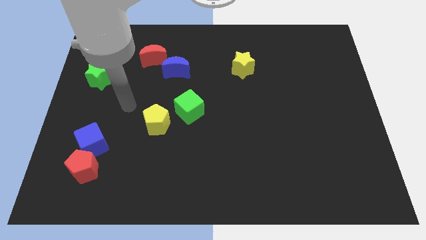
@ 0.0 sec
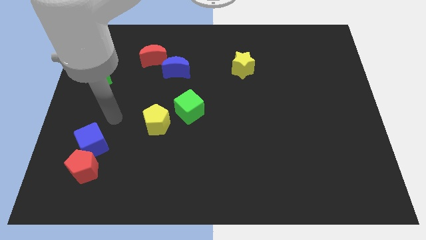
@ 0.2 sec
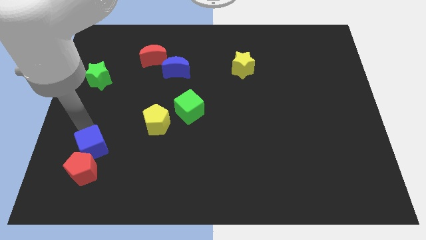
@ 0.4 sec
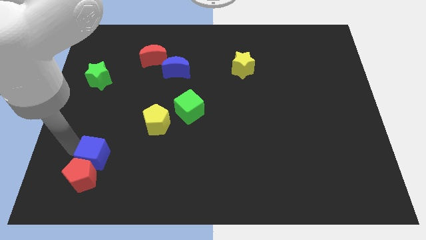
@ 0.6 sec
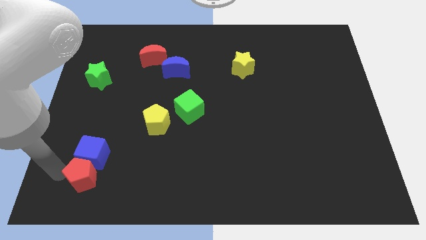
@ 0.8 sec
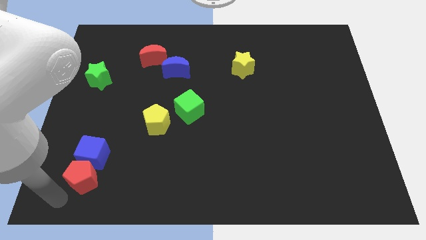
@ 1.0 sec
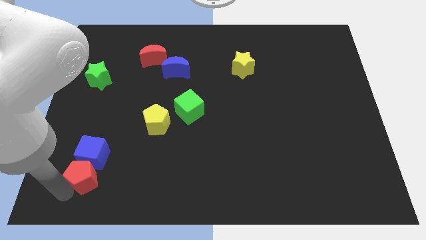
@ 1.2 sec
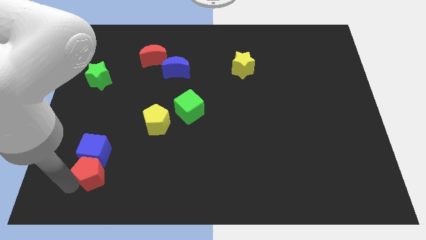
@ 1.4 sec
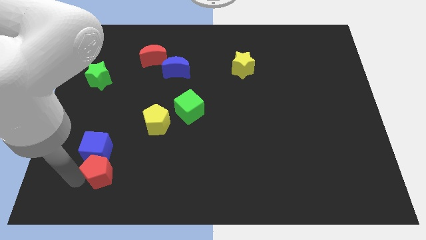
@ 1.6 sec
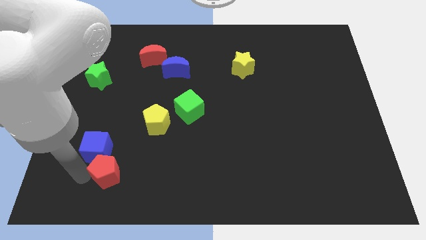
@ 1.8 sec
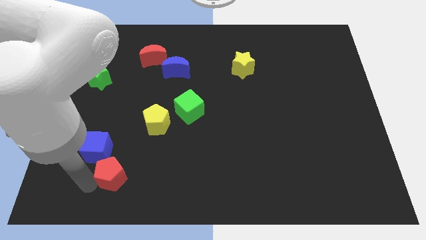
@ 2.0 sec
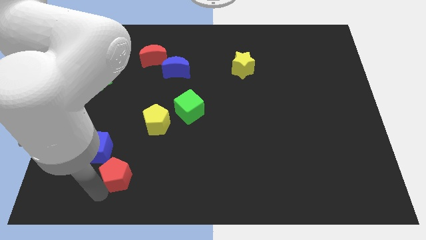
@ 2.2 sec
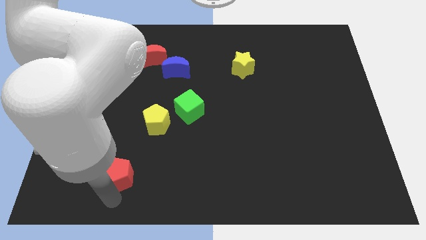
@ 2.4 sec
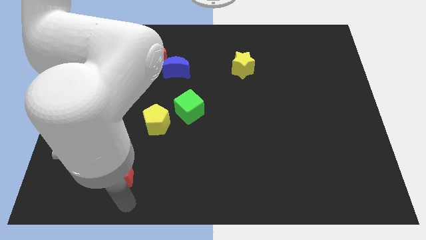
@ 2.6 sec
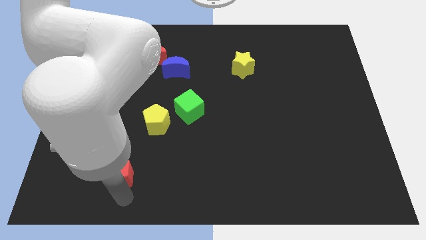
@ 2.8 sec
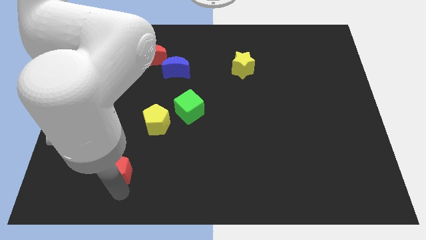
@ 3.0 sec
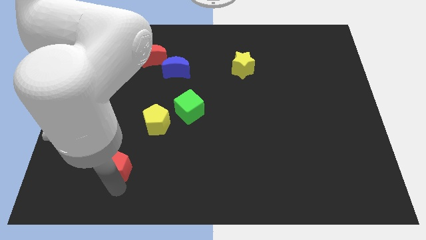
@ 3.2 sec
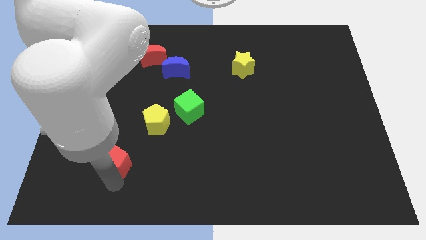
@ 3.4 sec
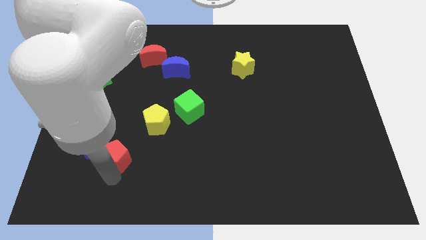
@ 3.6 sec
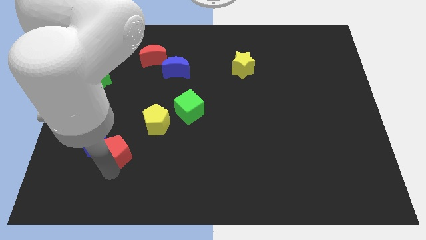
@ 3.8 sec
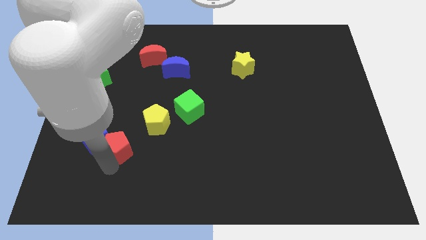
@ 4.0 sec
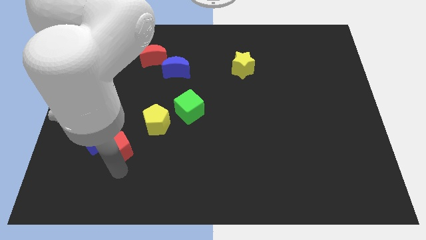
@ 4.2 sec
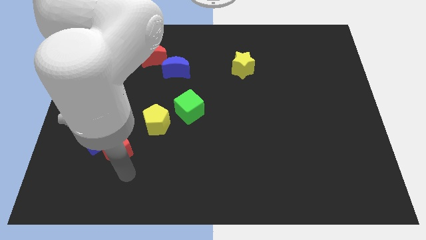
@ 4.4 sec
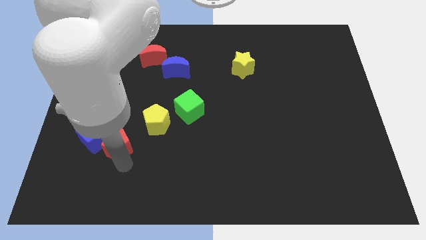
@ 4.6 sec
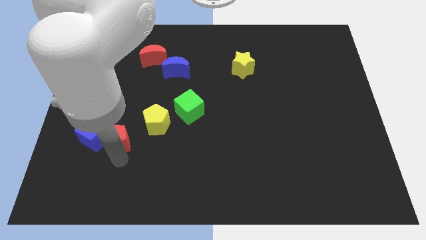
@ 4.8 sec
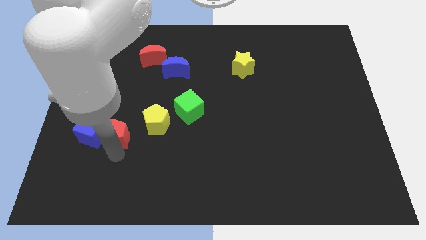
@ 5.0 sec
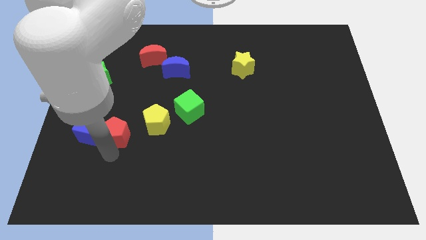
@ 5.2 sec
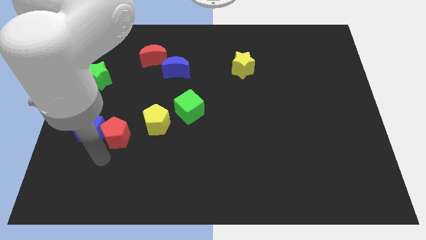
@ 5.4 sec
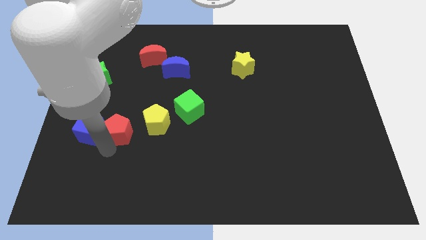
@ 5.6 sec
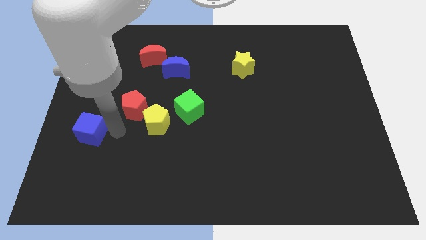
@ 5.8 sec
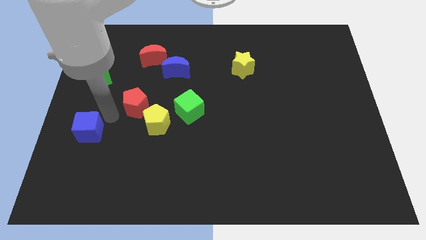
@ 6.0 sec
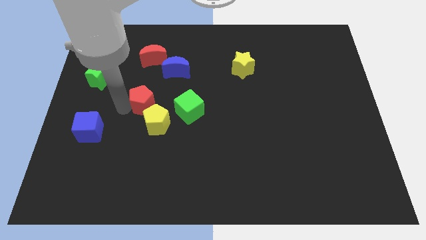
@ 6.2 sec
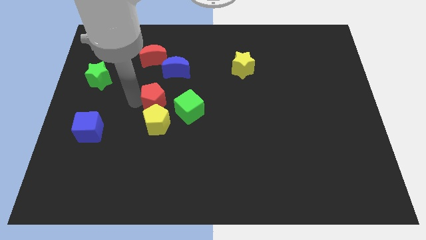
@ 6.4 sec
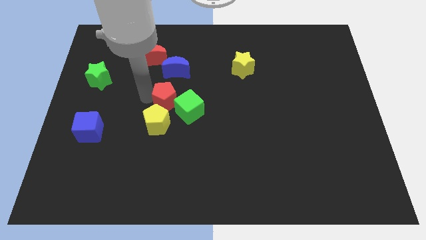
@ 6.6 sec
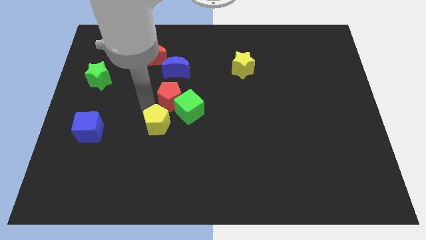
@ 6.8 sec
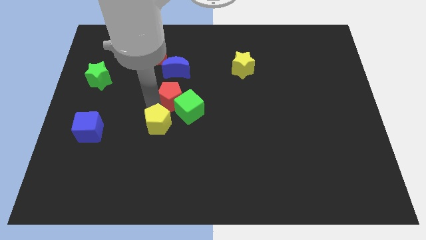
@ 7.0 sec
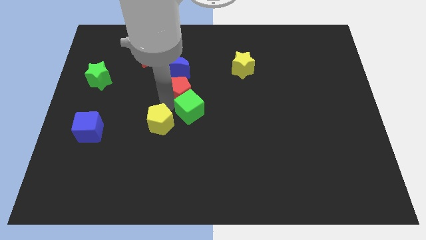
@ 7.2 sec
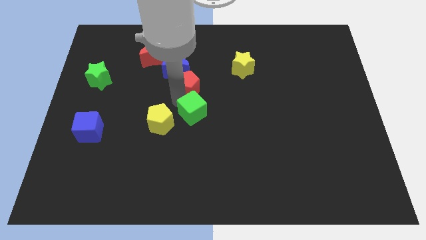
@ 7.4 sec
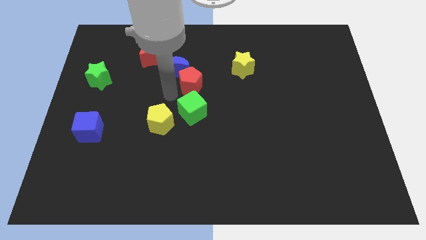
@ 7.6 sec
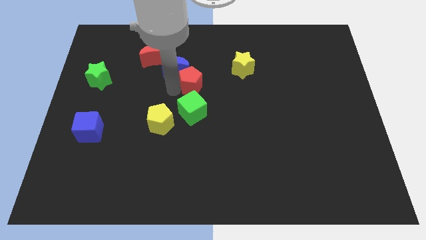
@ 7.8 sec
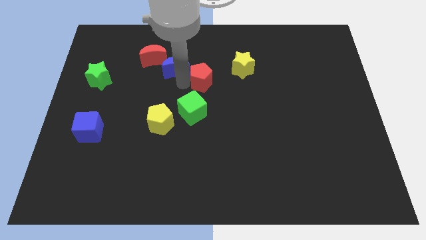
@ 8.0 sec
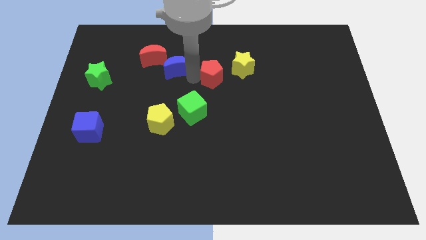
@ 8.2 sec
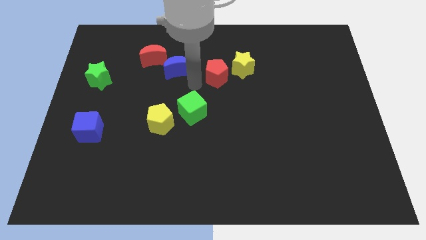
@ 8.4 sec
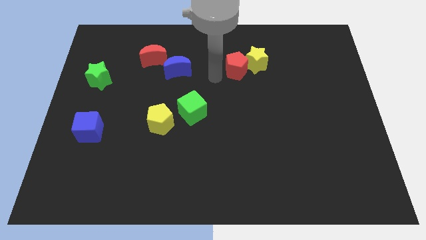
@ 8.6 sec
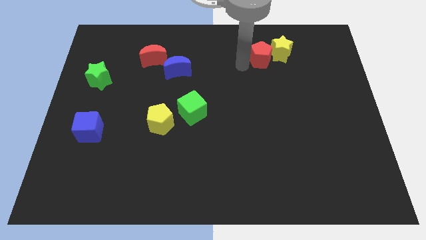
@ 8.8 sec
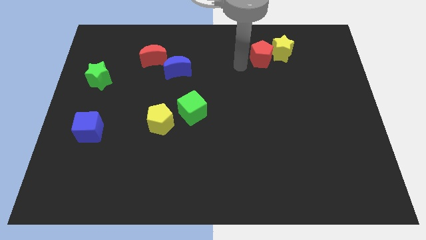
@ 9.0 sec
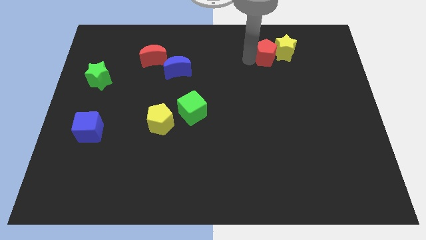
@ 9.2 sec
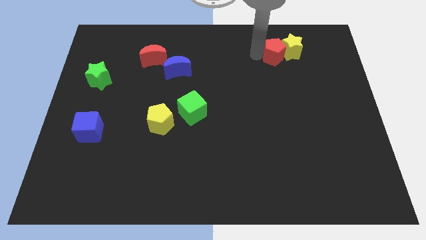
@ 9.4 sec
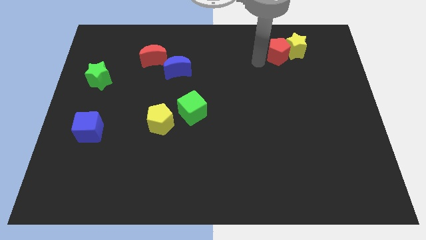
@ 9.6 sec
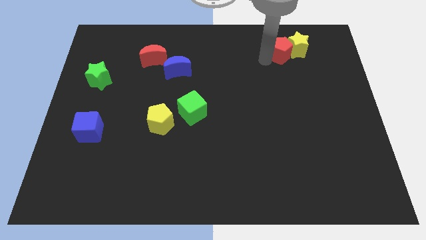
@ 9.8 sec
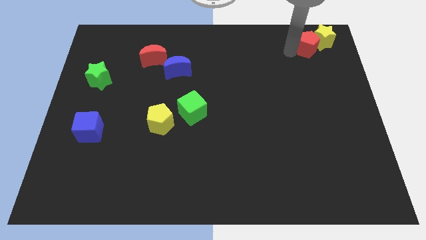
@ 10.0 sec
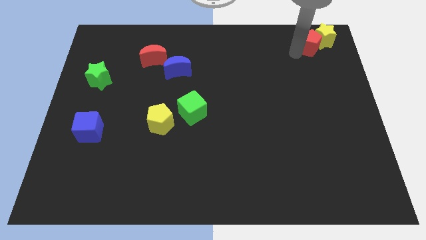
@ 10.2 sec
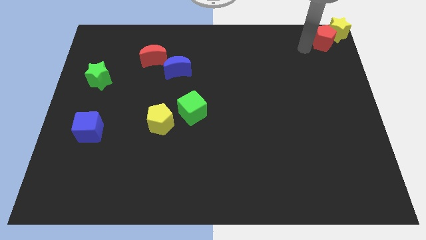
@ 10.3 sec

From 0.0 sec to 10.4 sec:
push the red pentagon to the top right of the board
